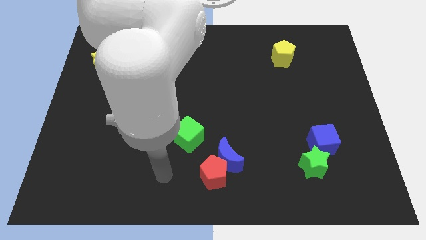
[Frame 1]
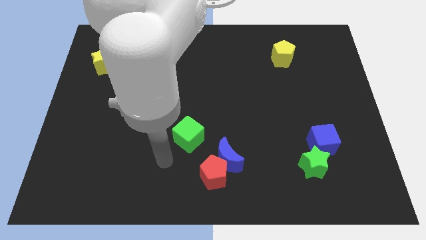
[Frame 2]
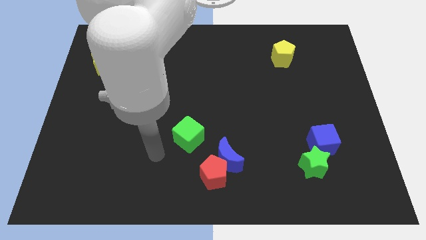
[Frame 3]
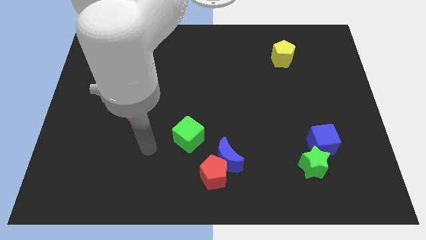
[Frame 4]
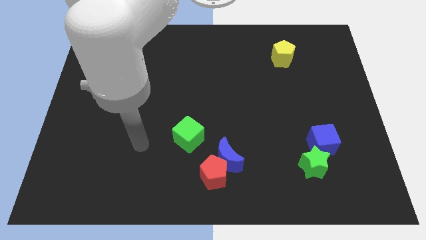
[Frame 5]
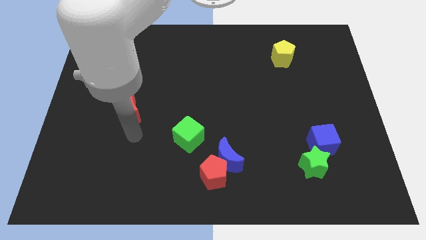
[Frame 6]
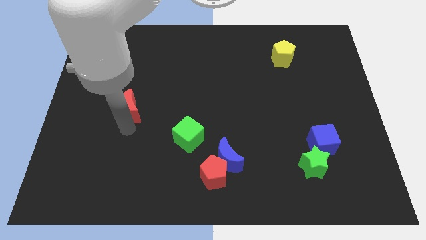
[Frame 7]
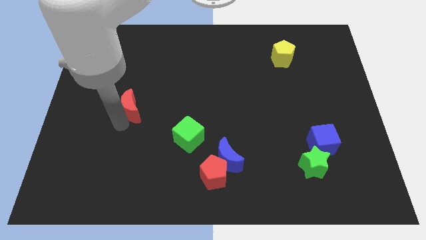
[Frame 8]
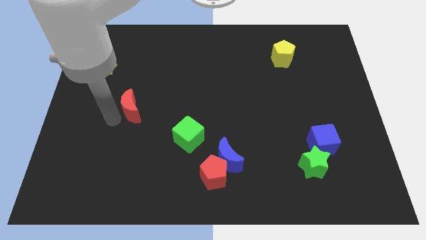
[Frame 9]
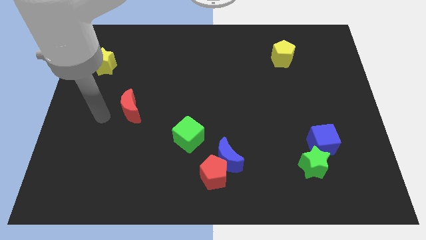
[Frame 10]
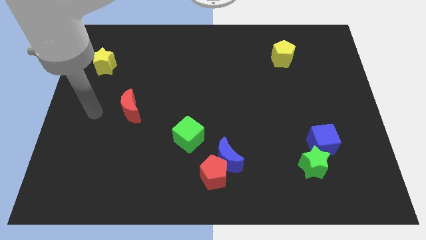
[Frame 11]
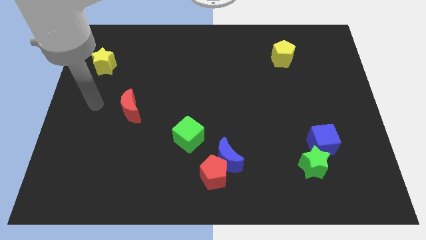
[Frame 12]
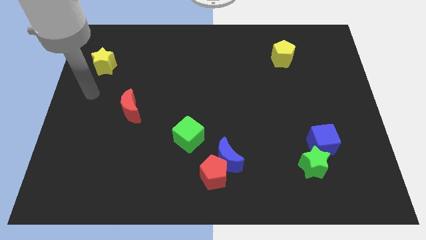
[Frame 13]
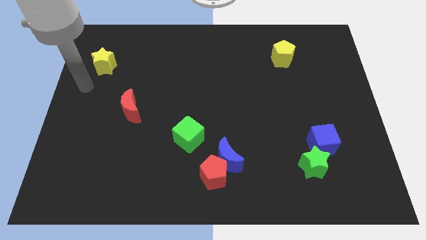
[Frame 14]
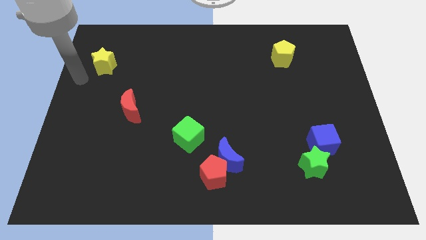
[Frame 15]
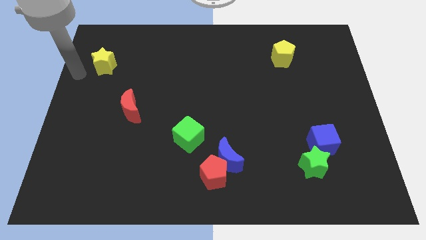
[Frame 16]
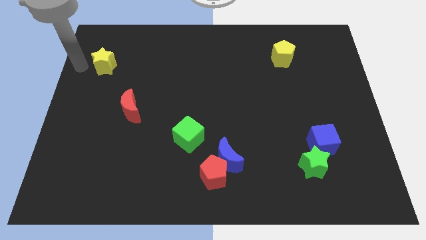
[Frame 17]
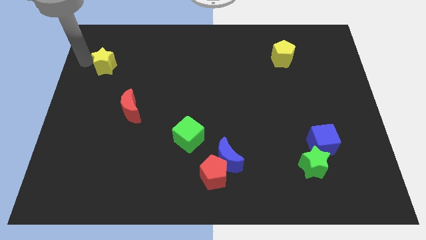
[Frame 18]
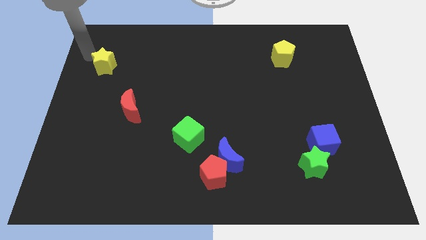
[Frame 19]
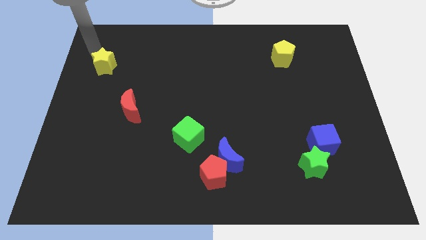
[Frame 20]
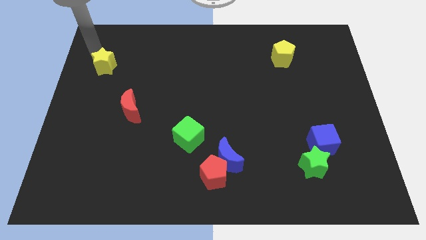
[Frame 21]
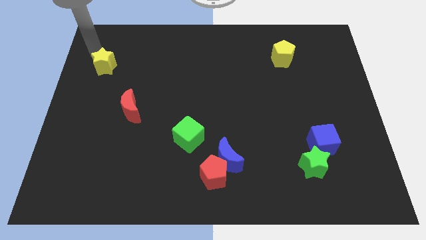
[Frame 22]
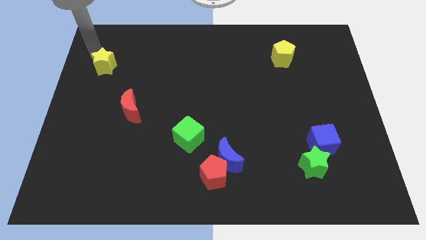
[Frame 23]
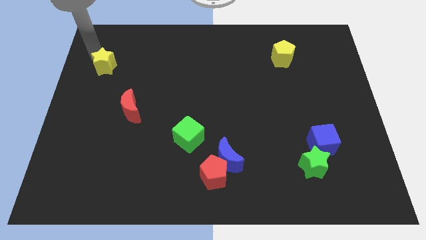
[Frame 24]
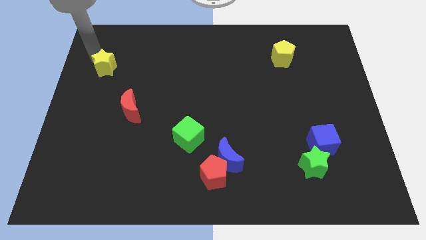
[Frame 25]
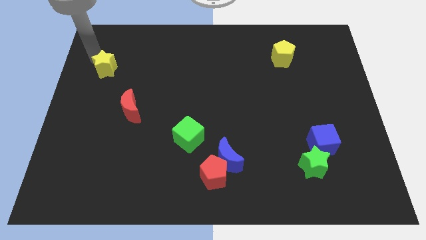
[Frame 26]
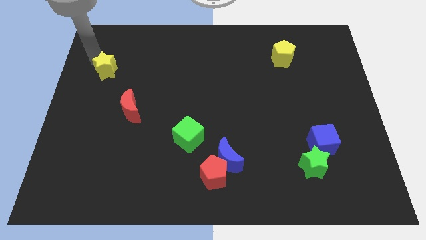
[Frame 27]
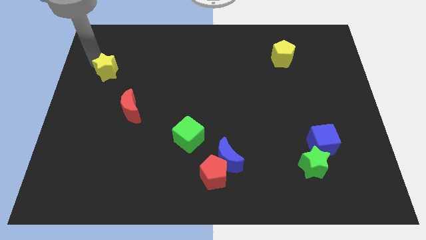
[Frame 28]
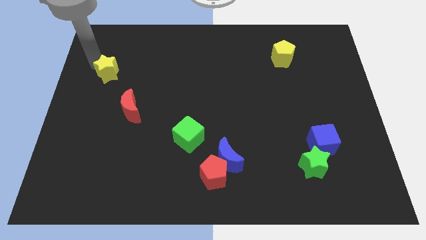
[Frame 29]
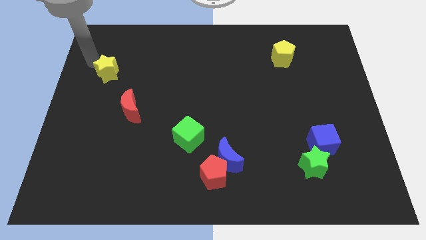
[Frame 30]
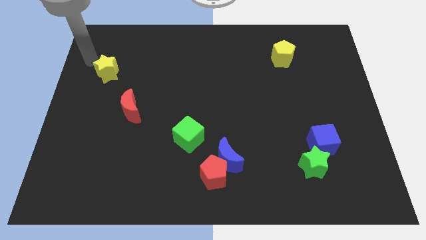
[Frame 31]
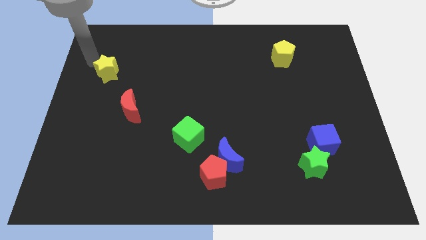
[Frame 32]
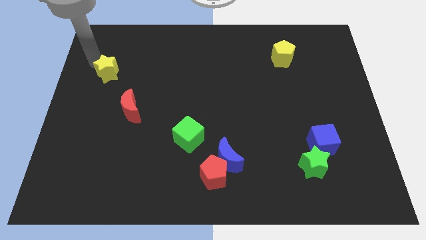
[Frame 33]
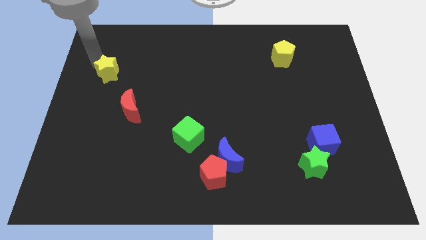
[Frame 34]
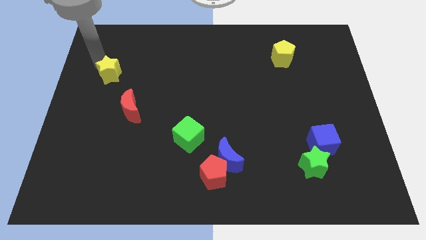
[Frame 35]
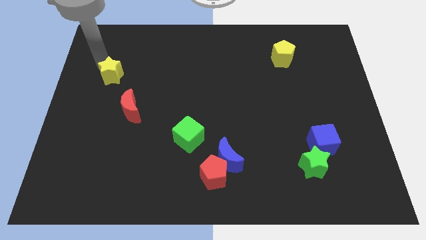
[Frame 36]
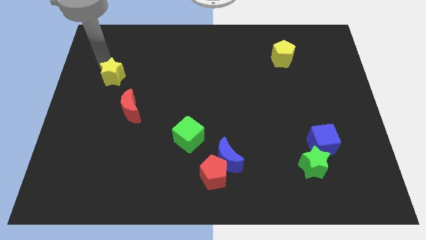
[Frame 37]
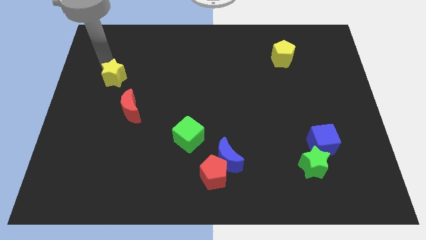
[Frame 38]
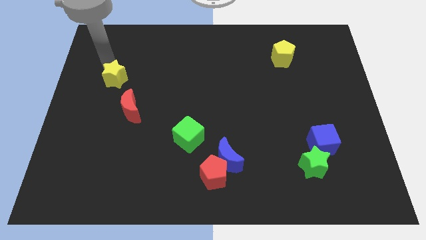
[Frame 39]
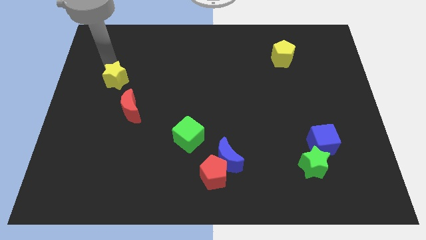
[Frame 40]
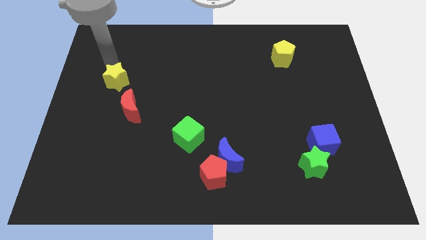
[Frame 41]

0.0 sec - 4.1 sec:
slide the yellow star down and to the right a bit

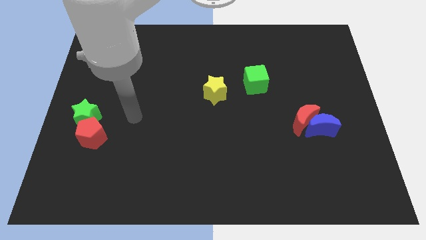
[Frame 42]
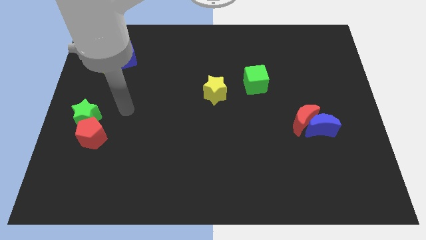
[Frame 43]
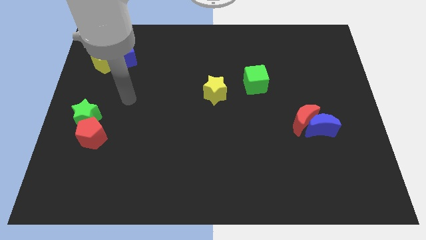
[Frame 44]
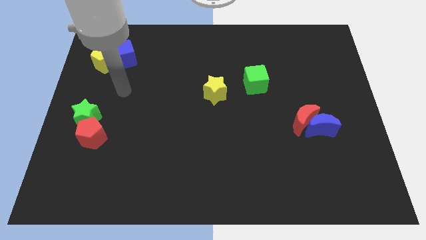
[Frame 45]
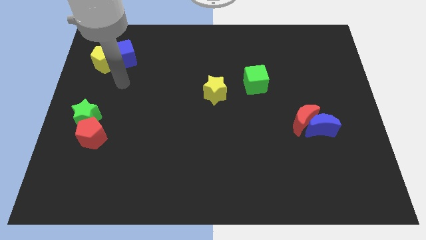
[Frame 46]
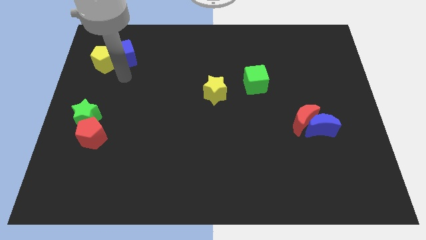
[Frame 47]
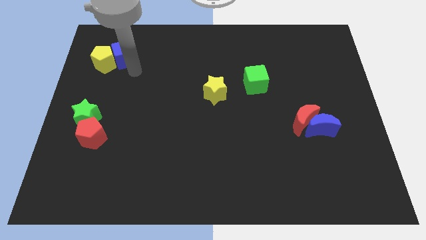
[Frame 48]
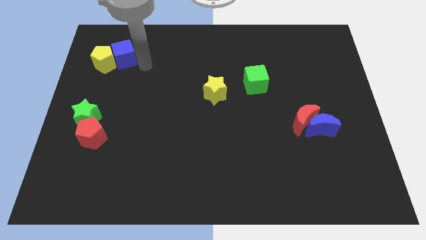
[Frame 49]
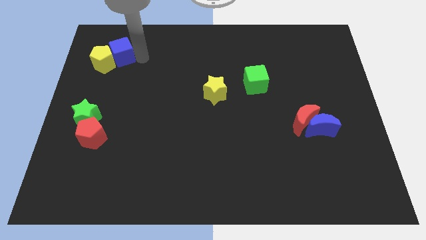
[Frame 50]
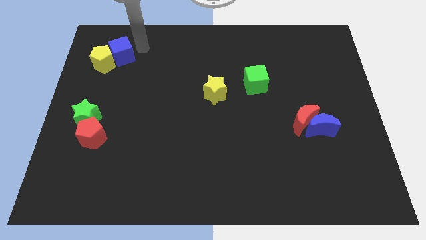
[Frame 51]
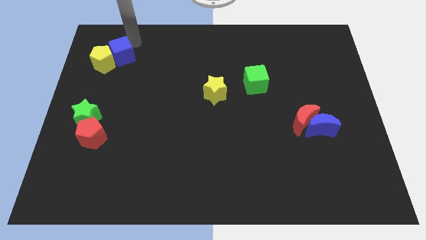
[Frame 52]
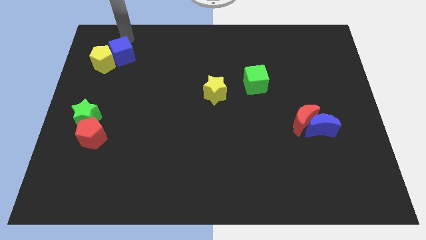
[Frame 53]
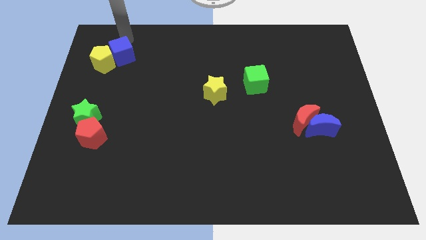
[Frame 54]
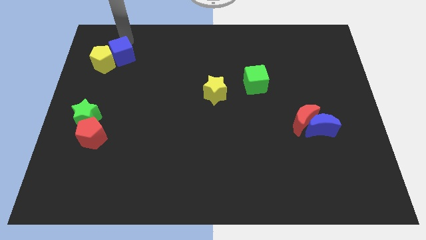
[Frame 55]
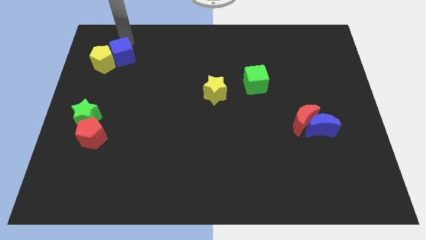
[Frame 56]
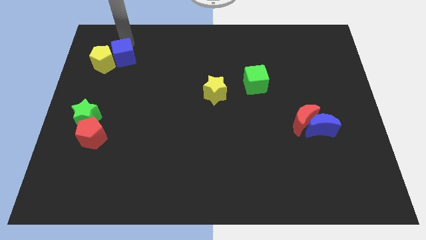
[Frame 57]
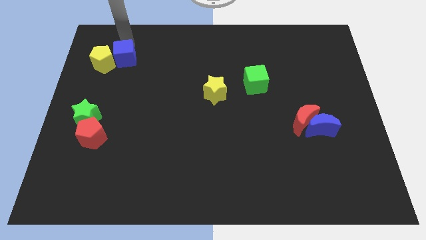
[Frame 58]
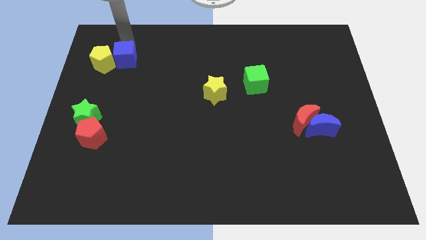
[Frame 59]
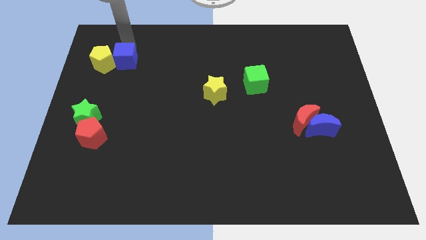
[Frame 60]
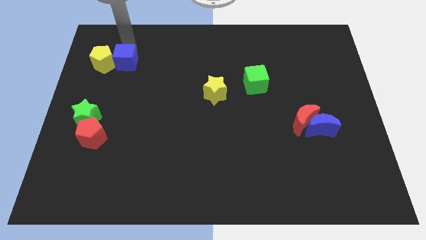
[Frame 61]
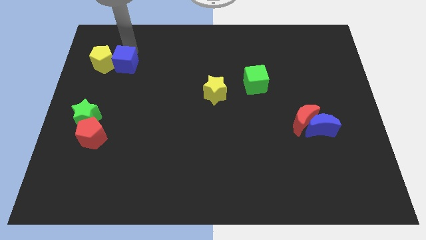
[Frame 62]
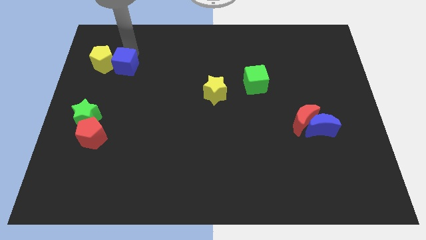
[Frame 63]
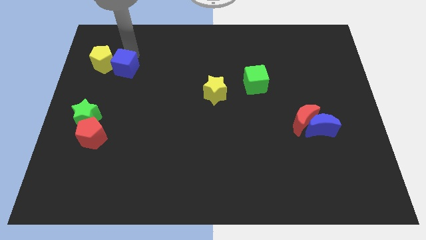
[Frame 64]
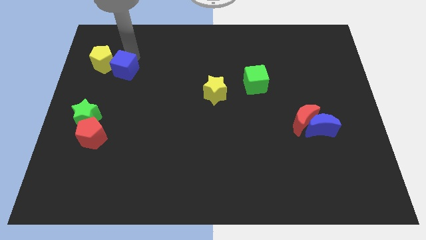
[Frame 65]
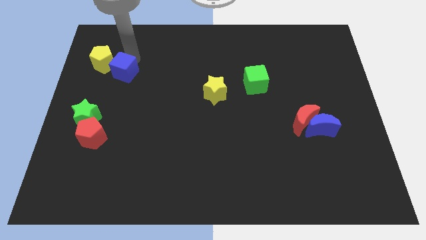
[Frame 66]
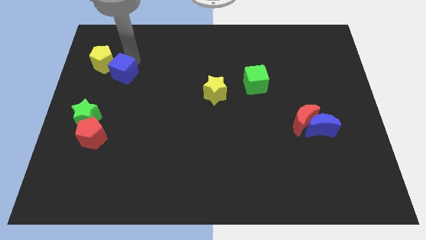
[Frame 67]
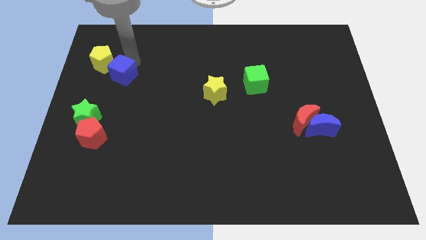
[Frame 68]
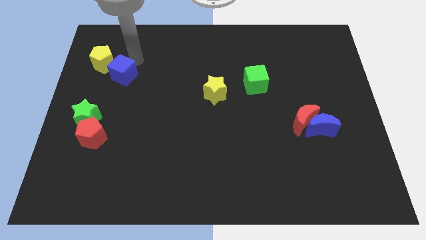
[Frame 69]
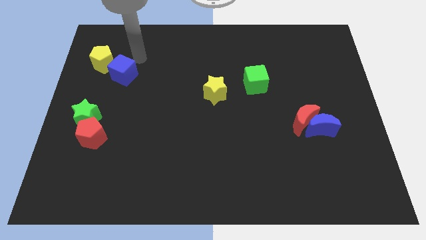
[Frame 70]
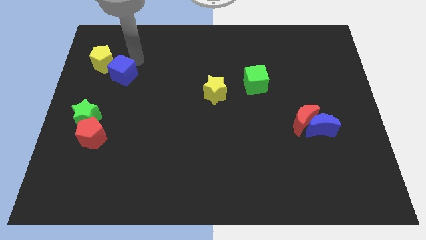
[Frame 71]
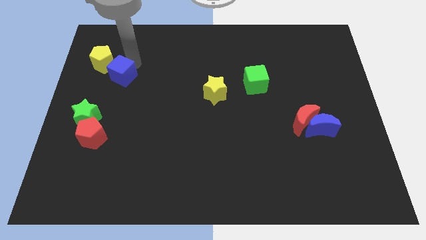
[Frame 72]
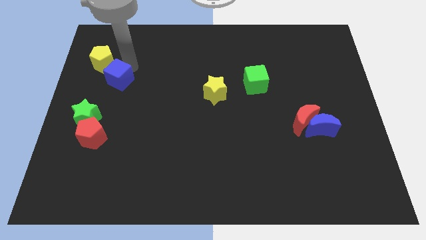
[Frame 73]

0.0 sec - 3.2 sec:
slide the blue cube downwards a little bit
